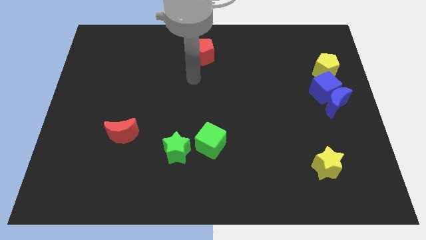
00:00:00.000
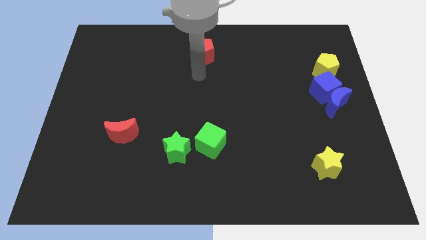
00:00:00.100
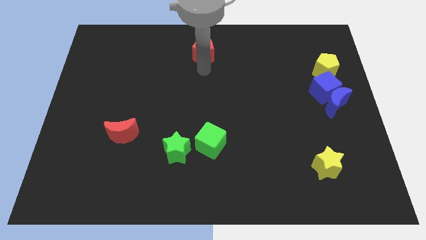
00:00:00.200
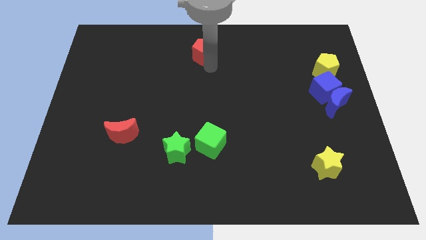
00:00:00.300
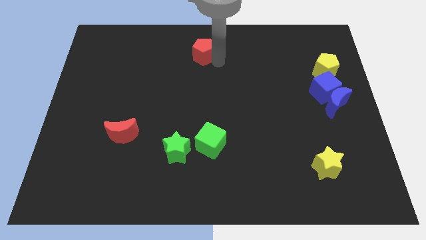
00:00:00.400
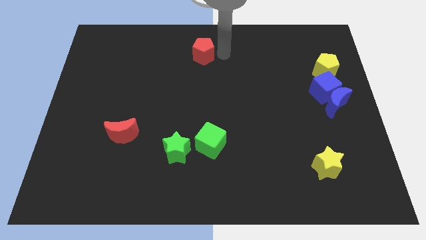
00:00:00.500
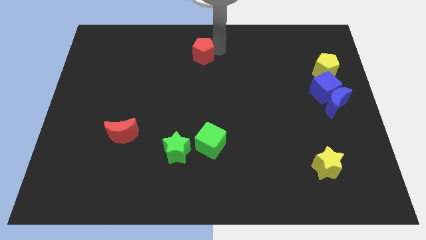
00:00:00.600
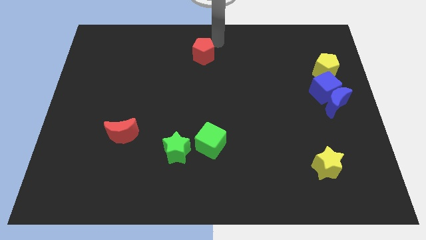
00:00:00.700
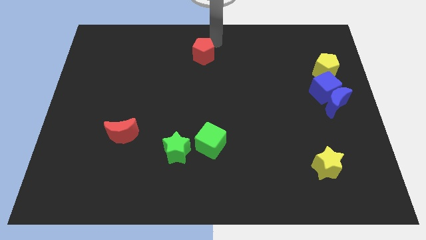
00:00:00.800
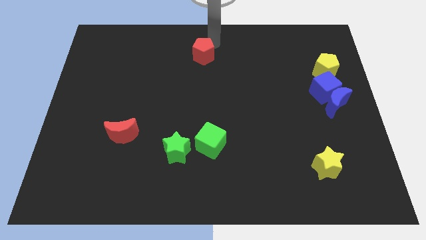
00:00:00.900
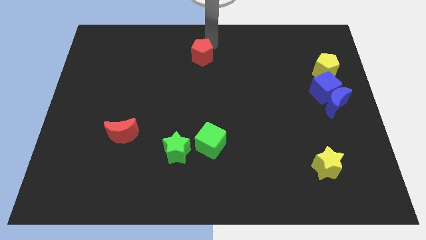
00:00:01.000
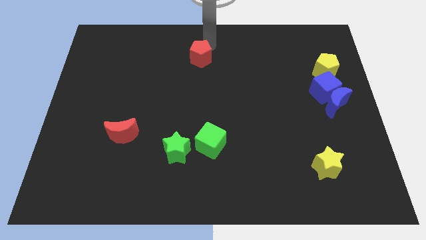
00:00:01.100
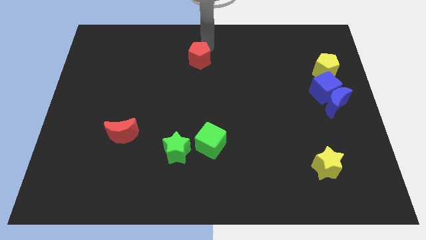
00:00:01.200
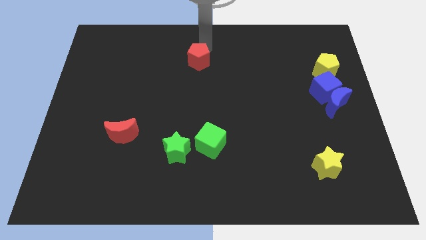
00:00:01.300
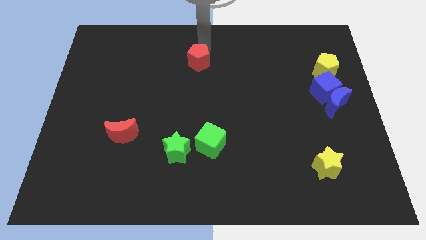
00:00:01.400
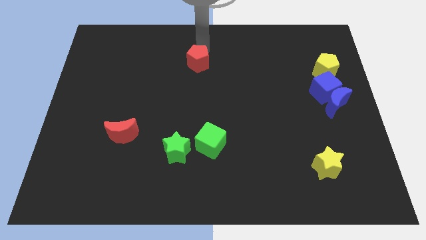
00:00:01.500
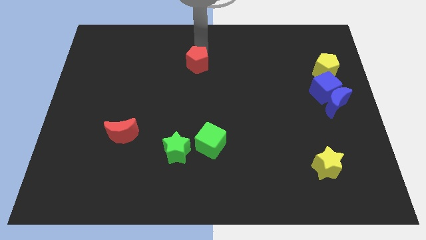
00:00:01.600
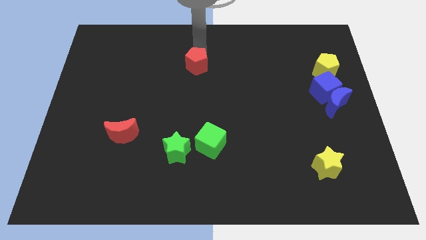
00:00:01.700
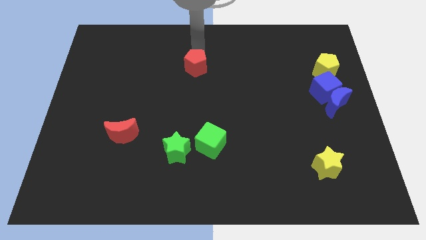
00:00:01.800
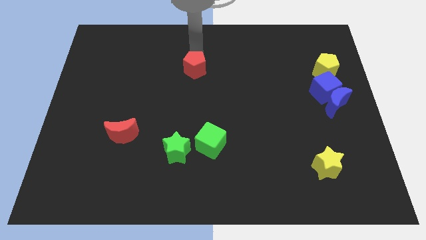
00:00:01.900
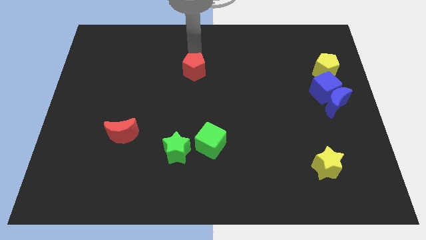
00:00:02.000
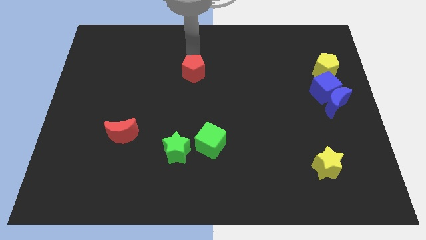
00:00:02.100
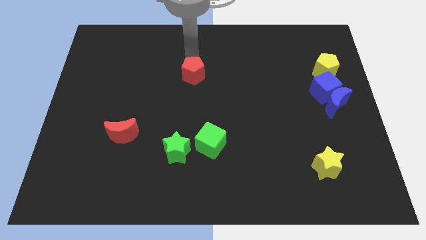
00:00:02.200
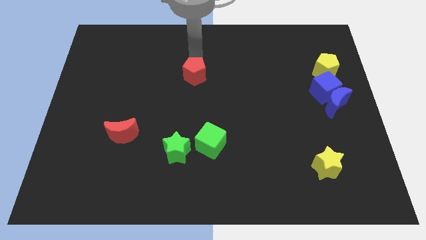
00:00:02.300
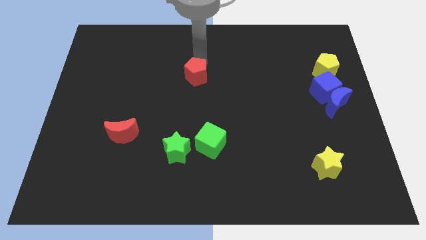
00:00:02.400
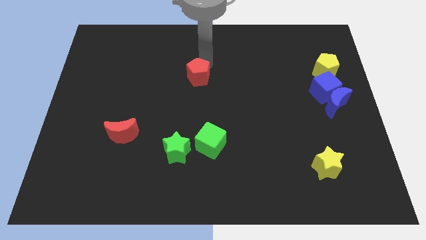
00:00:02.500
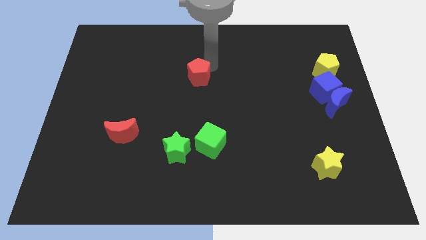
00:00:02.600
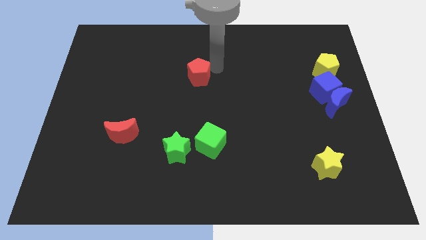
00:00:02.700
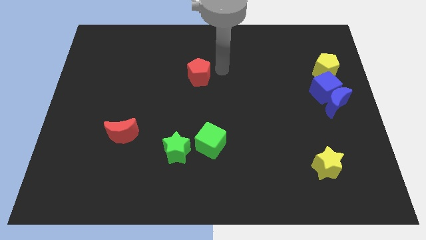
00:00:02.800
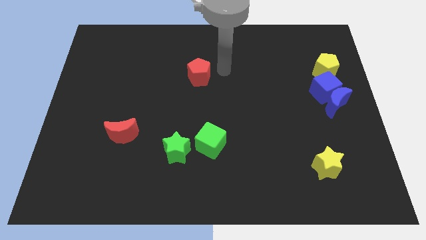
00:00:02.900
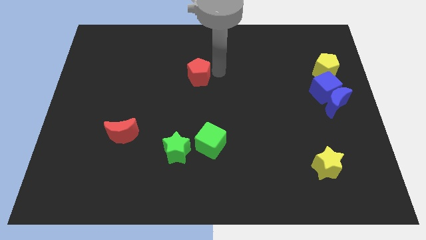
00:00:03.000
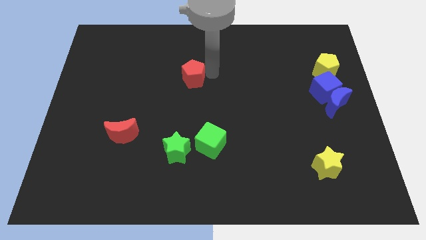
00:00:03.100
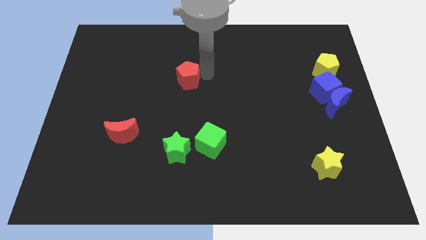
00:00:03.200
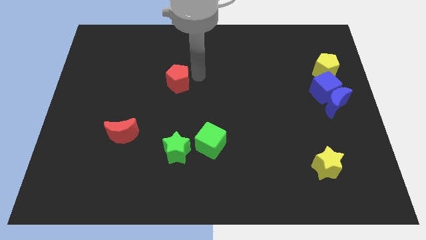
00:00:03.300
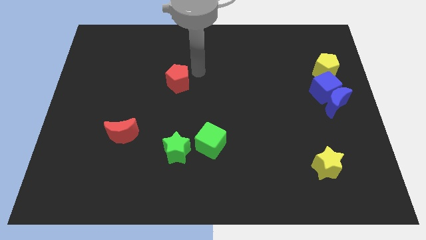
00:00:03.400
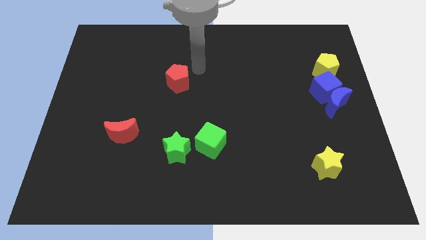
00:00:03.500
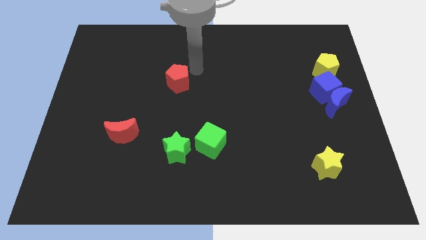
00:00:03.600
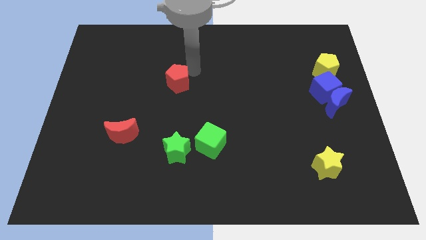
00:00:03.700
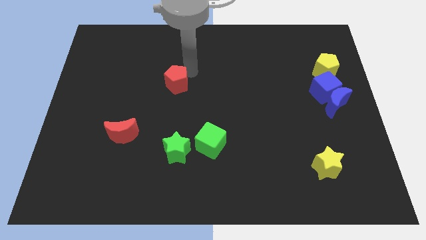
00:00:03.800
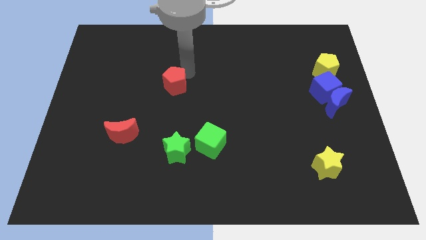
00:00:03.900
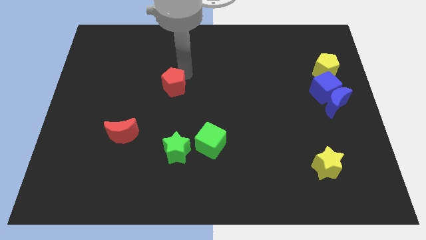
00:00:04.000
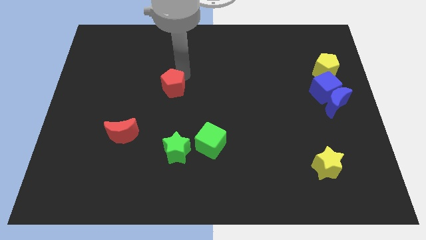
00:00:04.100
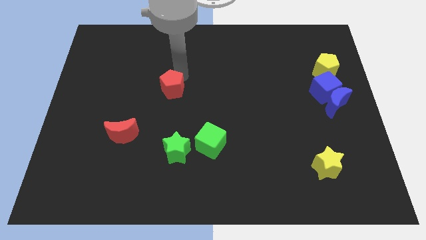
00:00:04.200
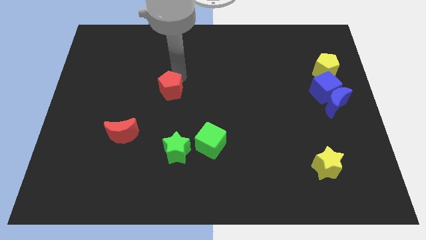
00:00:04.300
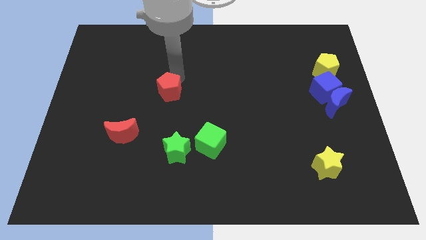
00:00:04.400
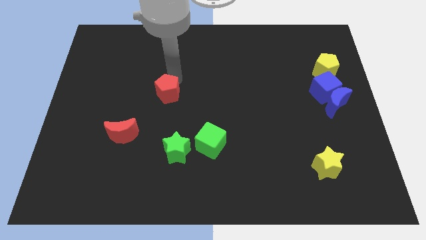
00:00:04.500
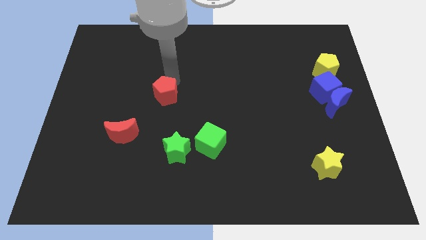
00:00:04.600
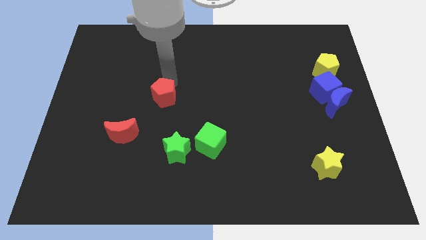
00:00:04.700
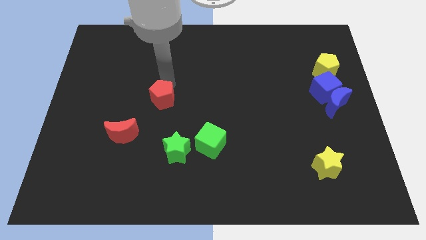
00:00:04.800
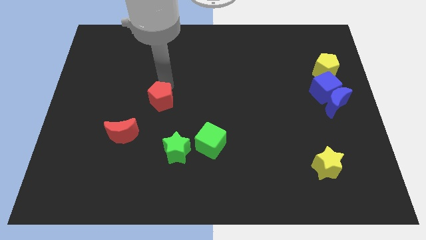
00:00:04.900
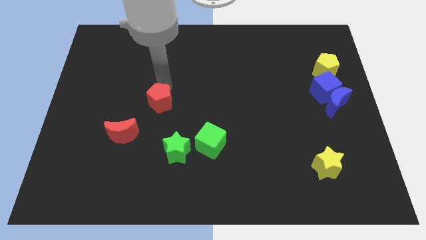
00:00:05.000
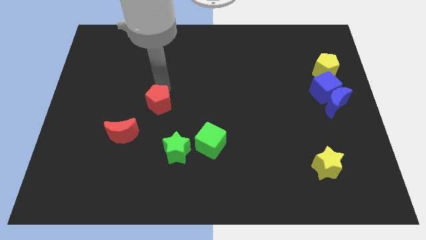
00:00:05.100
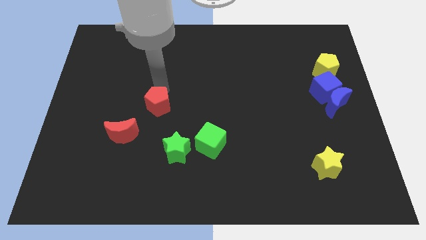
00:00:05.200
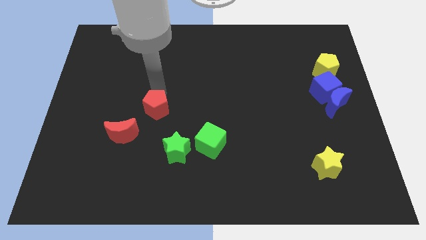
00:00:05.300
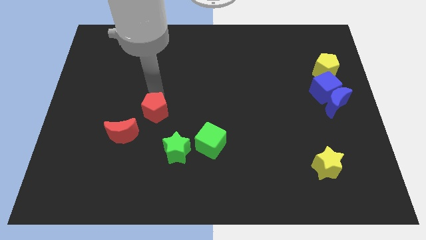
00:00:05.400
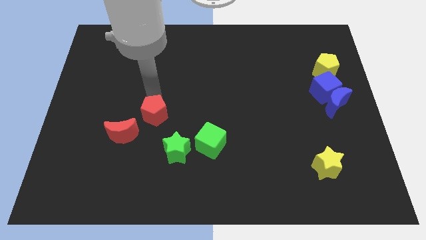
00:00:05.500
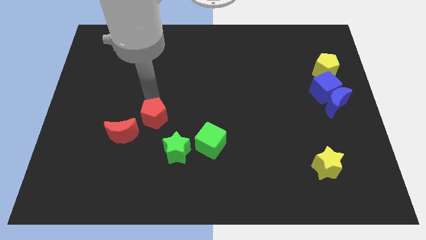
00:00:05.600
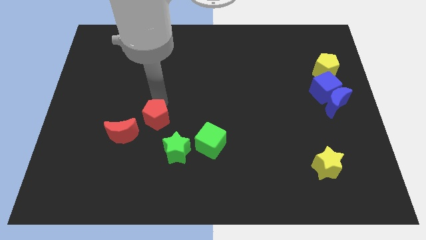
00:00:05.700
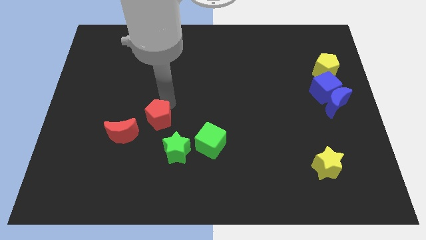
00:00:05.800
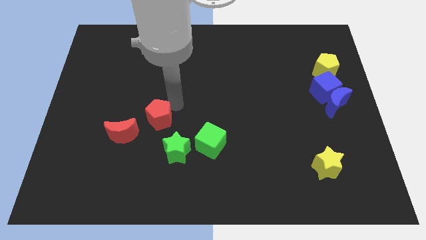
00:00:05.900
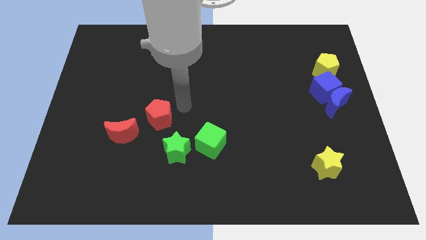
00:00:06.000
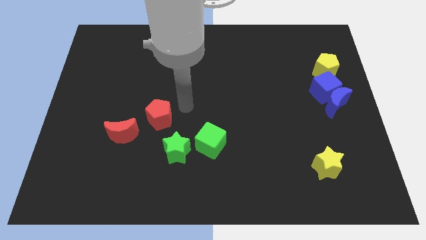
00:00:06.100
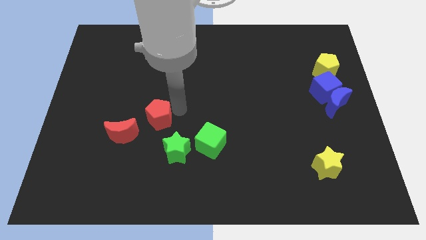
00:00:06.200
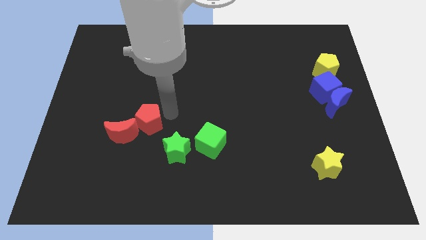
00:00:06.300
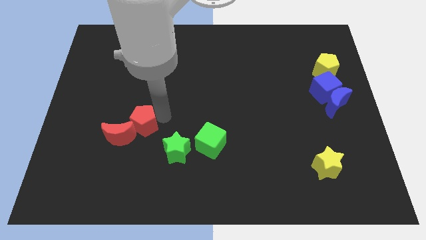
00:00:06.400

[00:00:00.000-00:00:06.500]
push the red pentagon next to the red moon

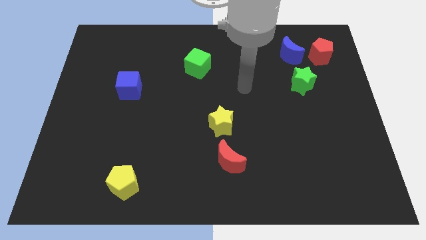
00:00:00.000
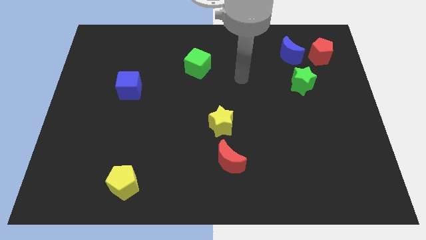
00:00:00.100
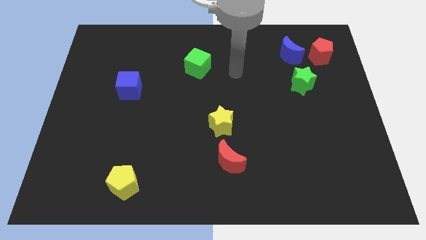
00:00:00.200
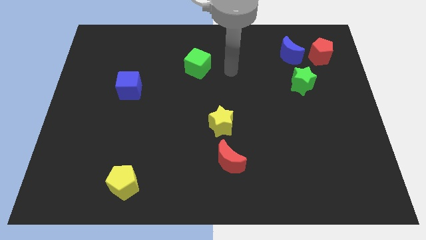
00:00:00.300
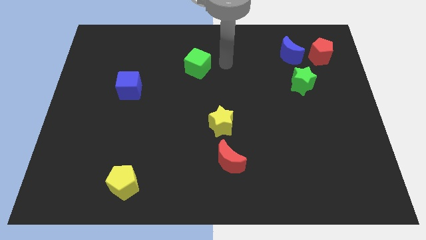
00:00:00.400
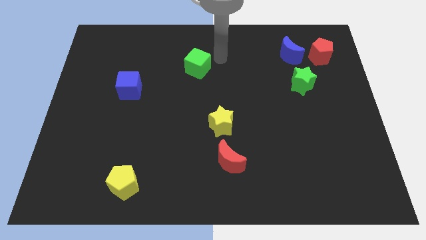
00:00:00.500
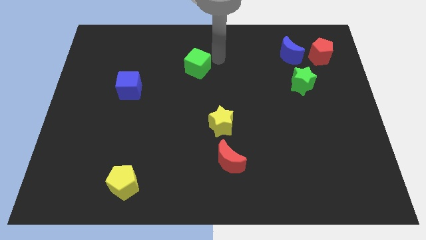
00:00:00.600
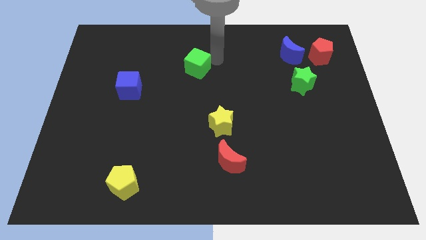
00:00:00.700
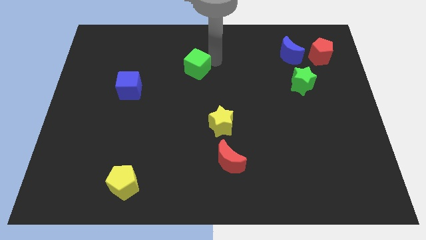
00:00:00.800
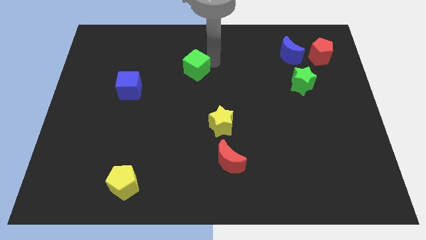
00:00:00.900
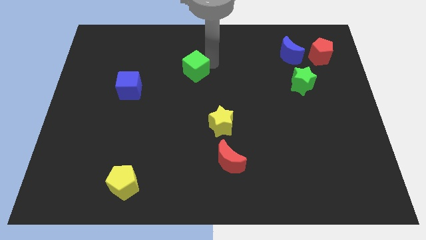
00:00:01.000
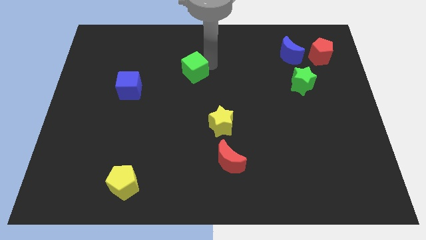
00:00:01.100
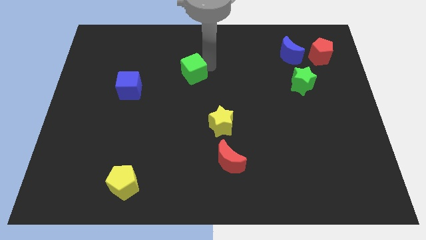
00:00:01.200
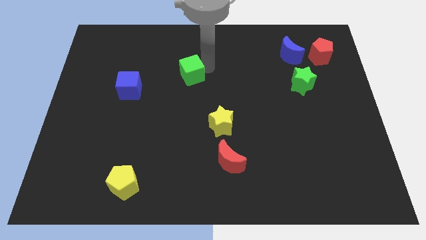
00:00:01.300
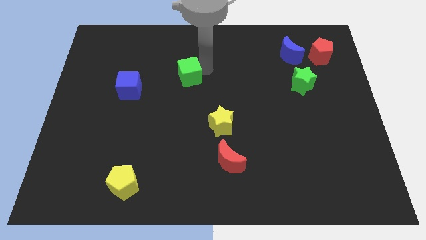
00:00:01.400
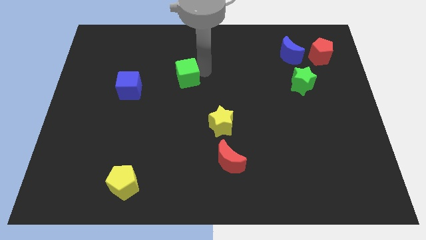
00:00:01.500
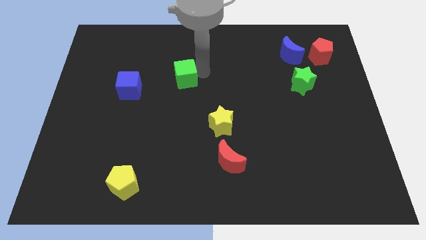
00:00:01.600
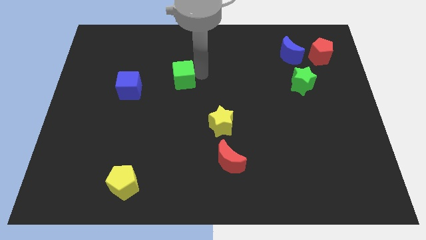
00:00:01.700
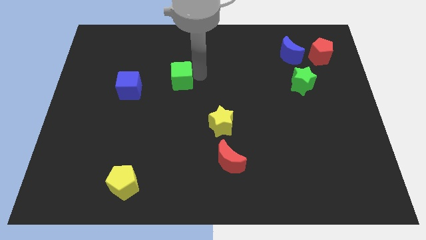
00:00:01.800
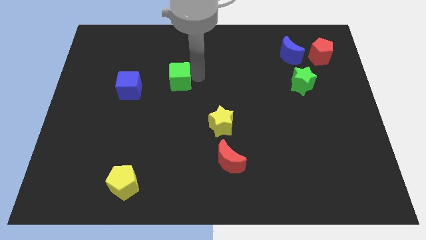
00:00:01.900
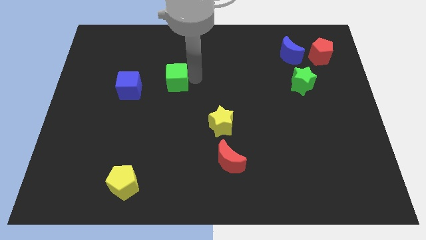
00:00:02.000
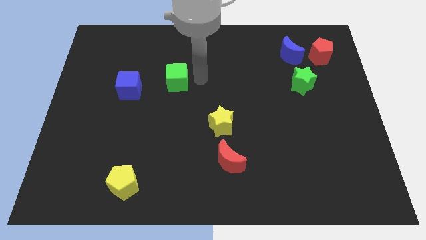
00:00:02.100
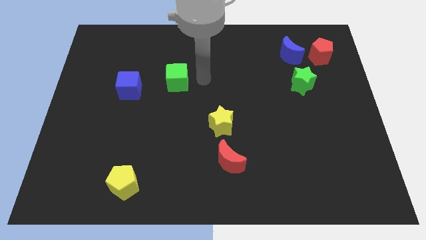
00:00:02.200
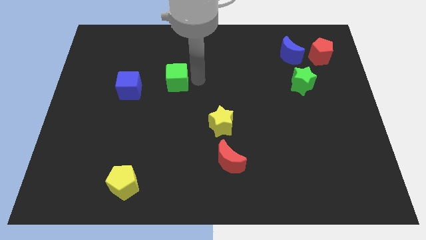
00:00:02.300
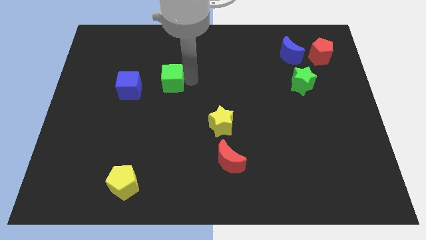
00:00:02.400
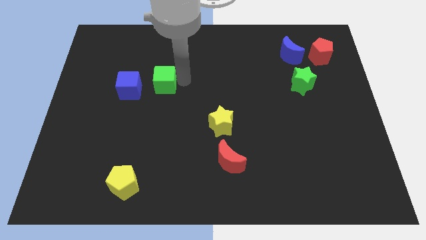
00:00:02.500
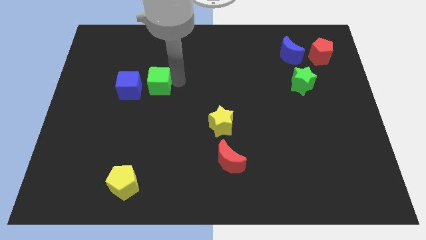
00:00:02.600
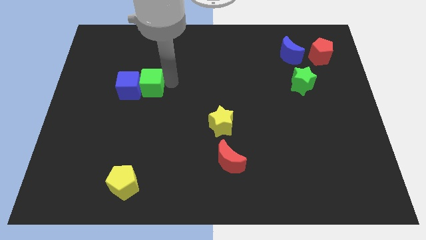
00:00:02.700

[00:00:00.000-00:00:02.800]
push the green cube towards the blue cube
